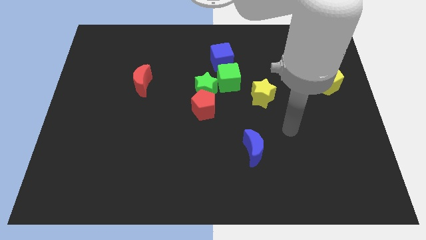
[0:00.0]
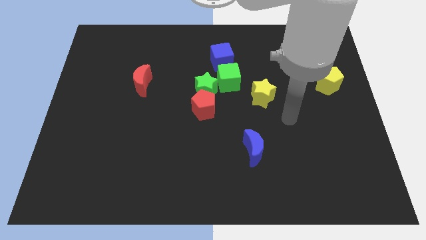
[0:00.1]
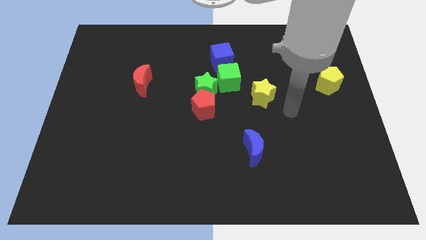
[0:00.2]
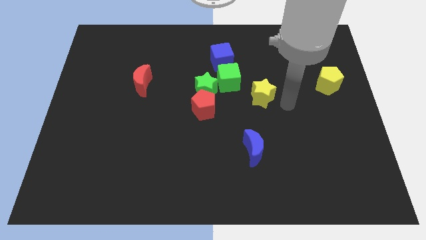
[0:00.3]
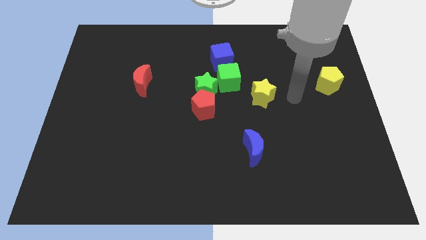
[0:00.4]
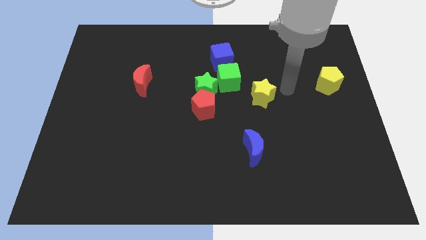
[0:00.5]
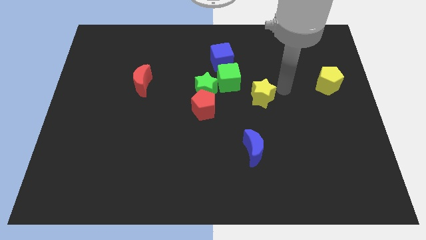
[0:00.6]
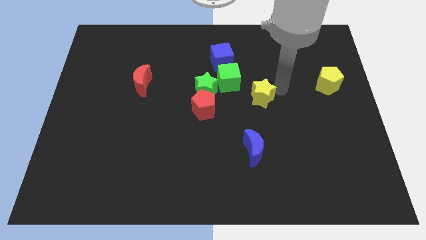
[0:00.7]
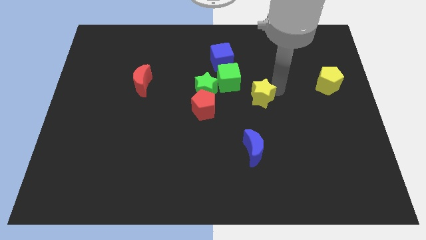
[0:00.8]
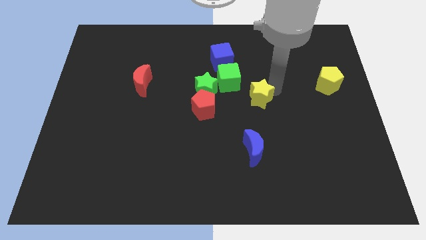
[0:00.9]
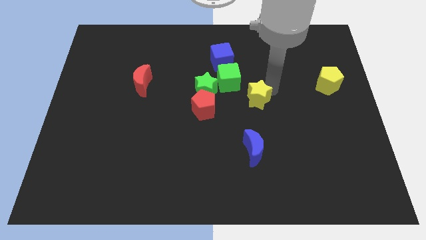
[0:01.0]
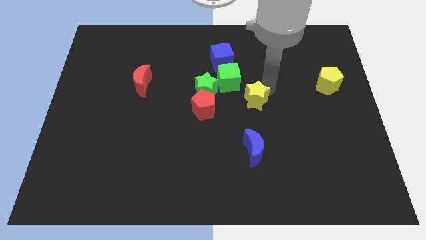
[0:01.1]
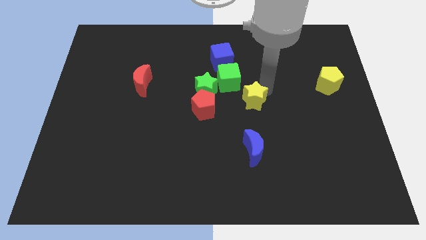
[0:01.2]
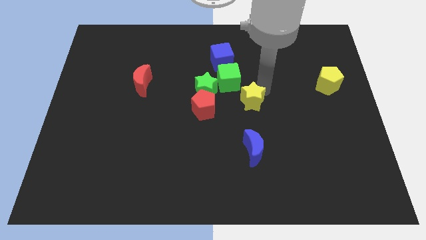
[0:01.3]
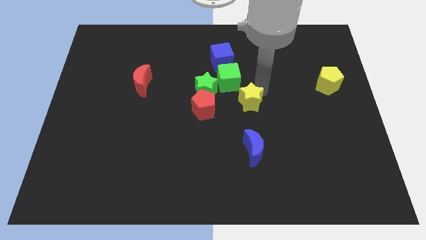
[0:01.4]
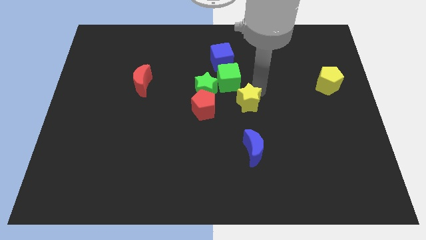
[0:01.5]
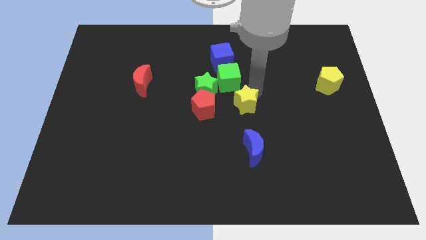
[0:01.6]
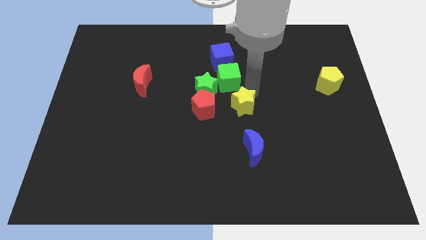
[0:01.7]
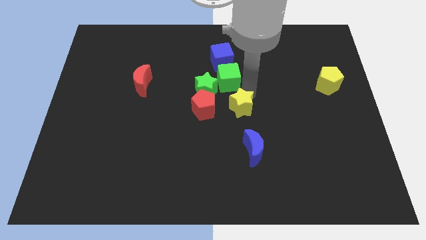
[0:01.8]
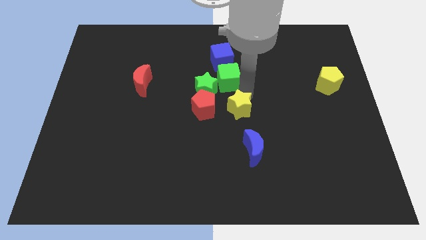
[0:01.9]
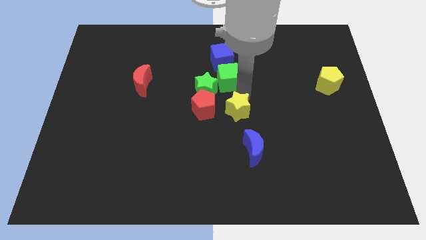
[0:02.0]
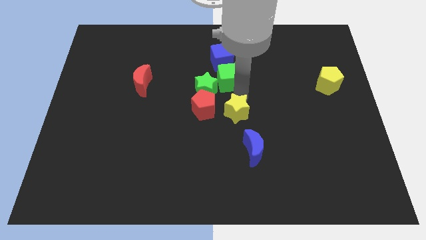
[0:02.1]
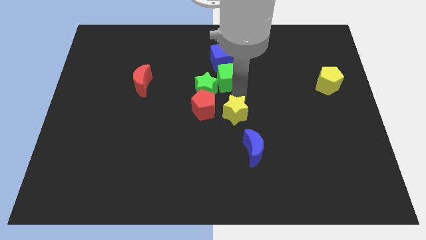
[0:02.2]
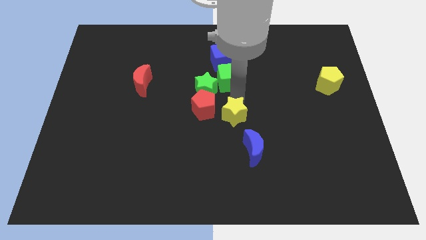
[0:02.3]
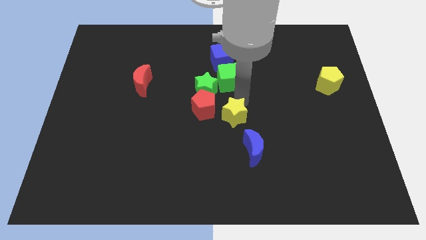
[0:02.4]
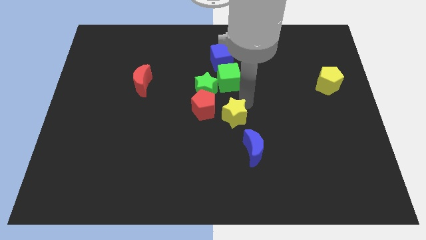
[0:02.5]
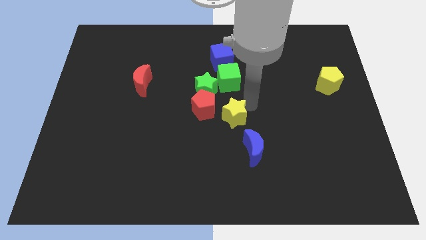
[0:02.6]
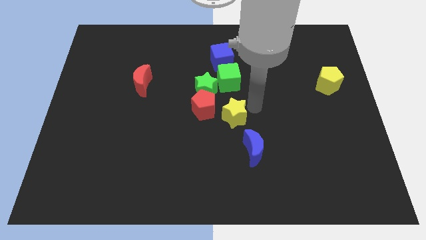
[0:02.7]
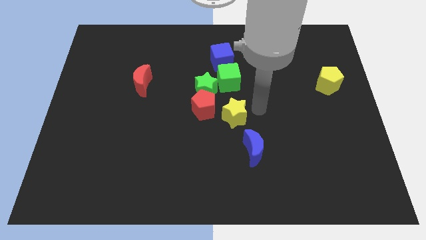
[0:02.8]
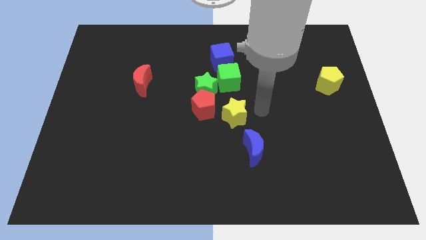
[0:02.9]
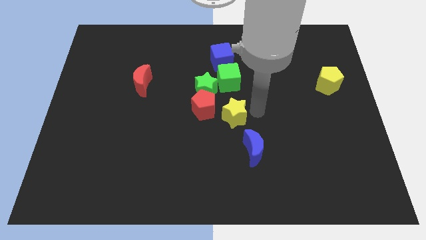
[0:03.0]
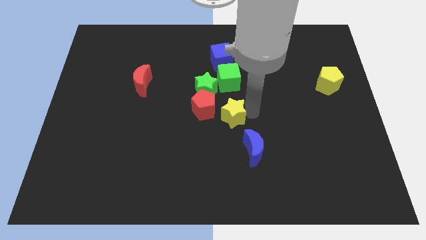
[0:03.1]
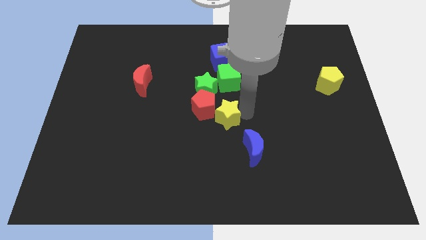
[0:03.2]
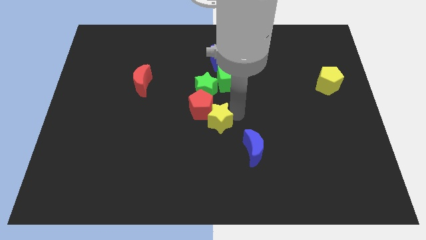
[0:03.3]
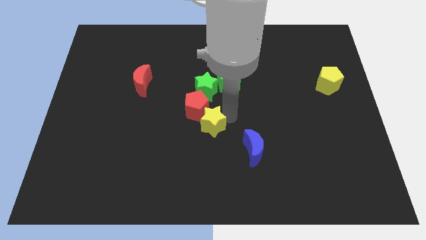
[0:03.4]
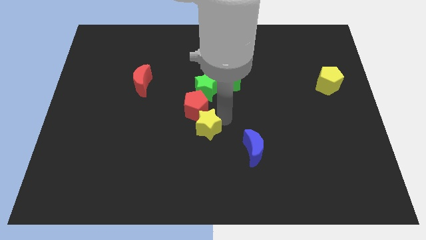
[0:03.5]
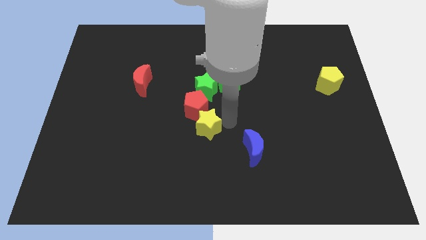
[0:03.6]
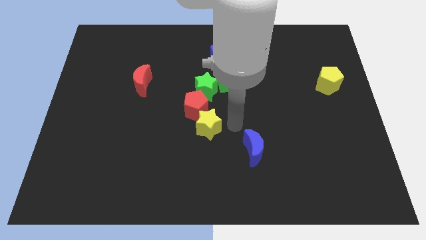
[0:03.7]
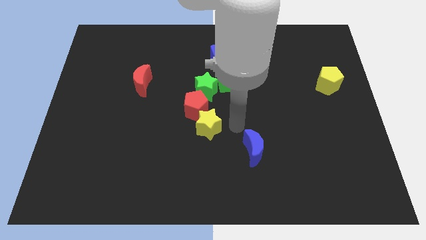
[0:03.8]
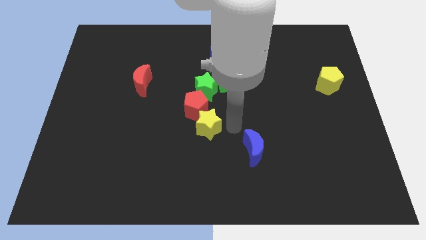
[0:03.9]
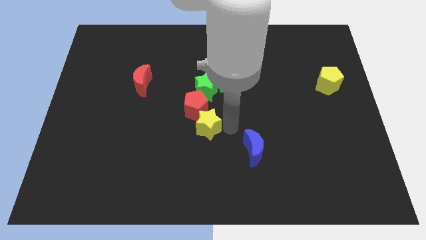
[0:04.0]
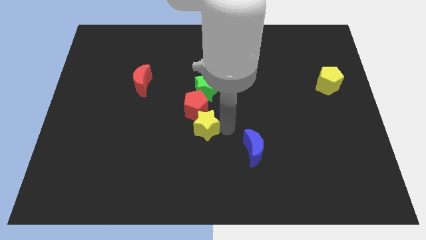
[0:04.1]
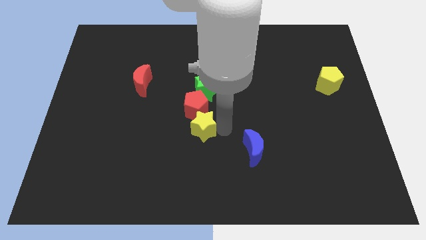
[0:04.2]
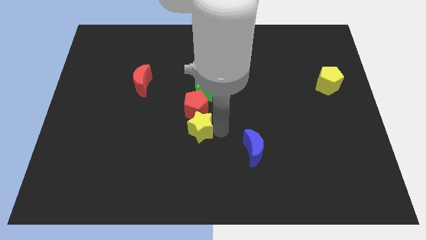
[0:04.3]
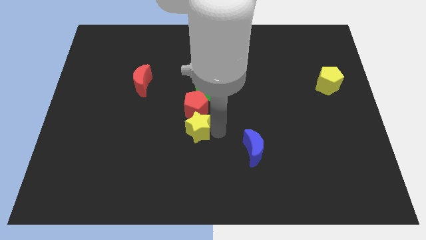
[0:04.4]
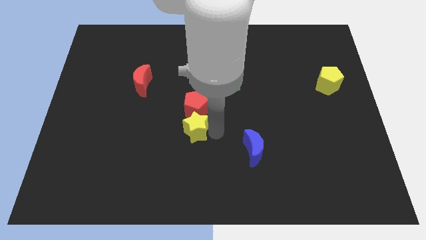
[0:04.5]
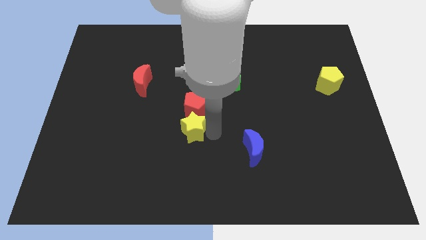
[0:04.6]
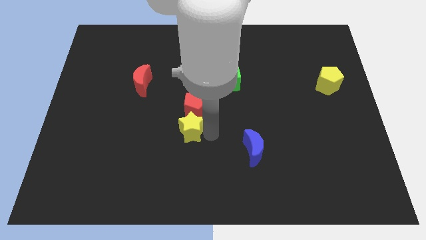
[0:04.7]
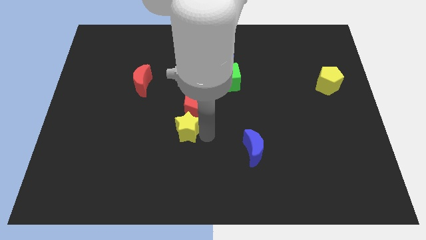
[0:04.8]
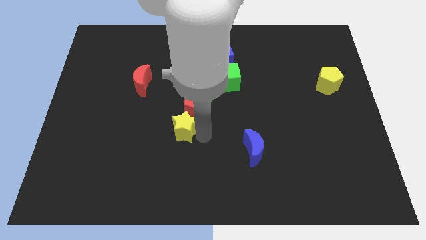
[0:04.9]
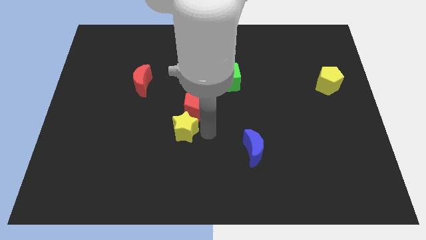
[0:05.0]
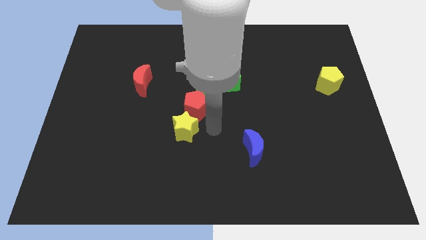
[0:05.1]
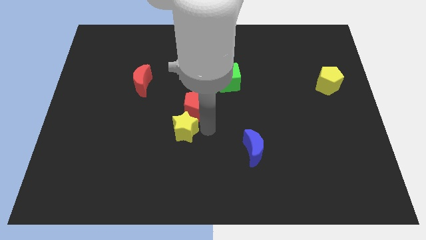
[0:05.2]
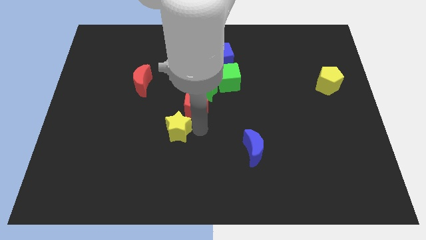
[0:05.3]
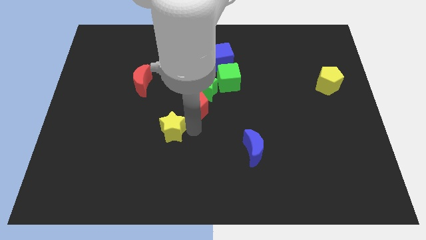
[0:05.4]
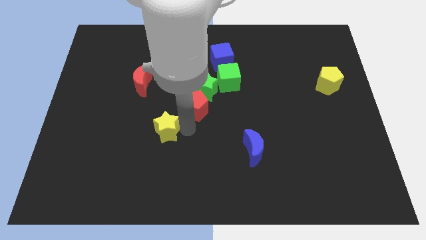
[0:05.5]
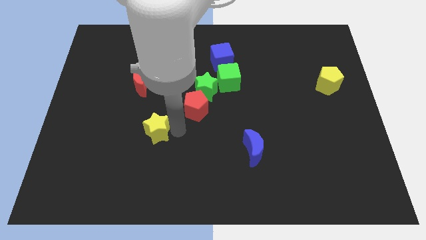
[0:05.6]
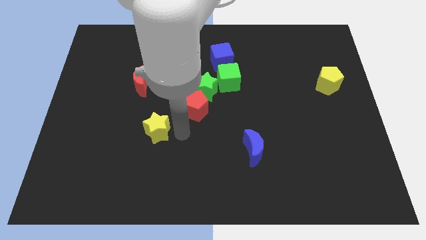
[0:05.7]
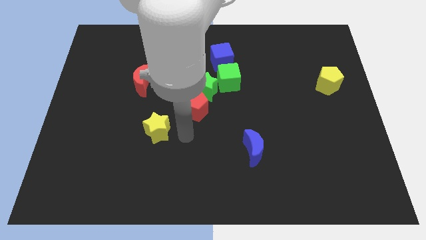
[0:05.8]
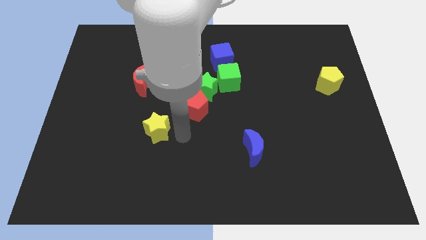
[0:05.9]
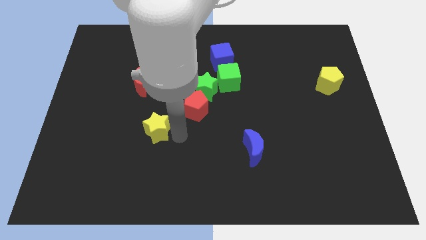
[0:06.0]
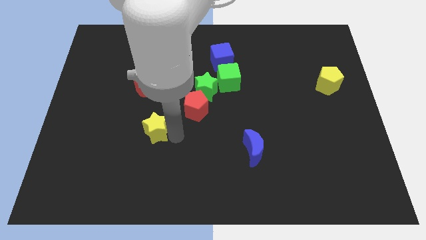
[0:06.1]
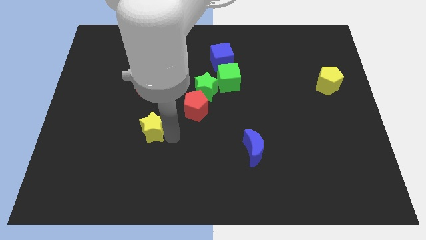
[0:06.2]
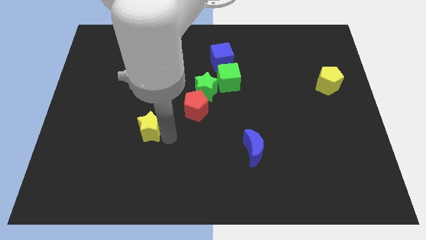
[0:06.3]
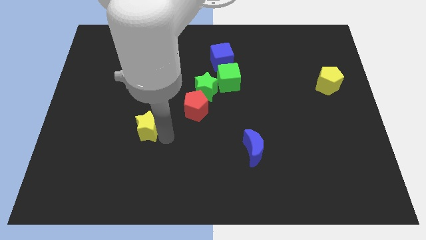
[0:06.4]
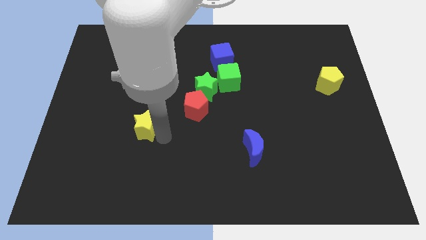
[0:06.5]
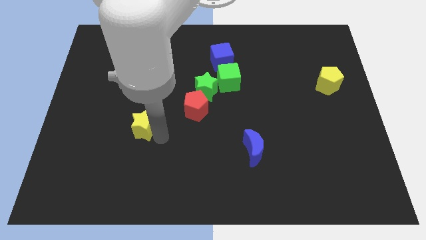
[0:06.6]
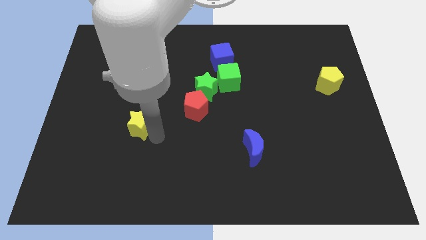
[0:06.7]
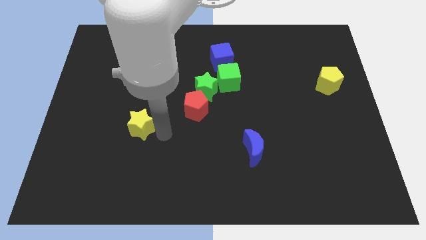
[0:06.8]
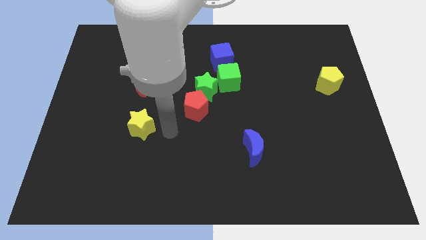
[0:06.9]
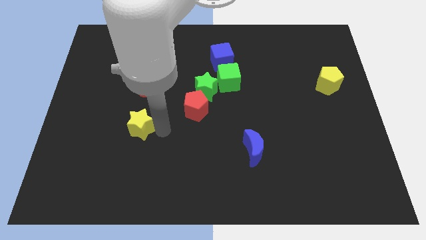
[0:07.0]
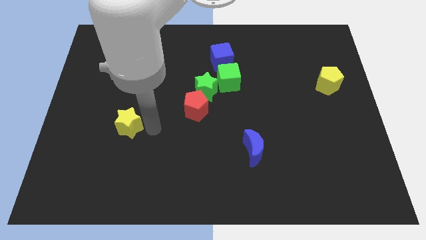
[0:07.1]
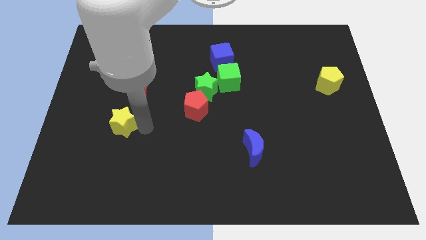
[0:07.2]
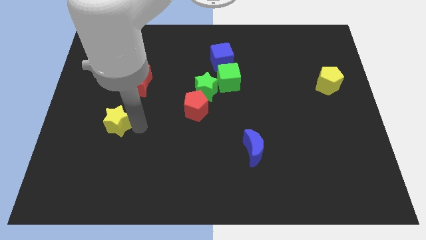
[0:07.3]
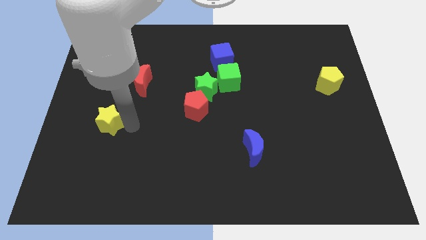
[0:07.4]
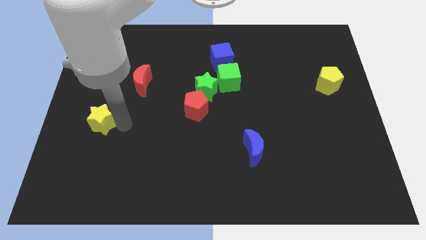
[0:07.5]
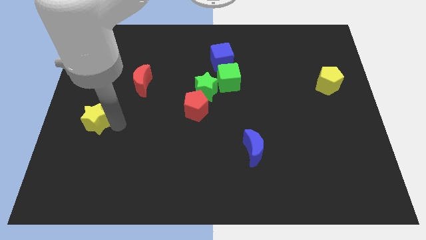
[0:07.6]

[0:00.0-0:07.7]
push the yellow star to the left side
